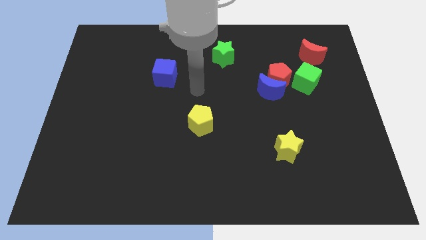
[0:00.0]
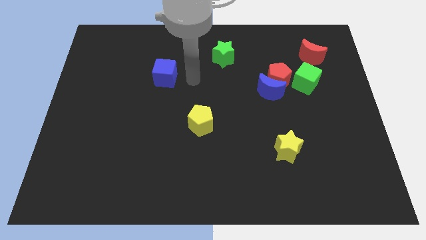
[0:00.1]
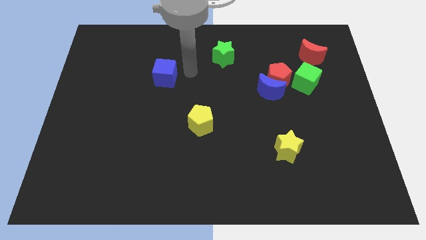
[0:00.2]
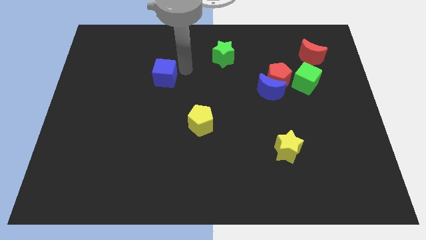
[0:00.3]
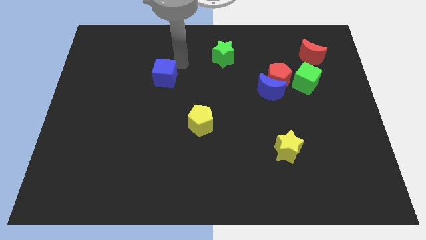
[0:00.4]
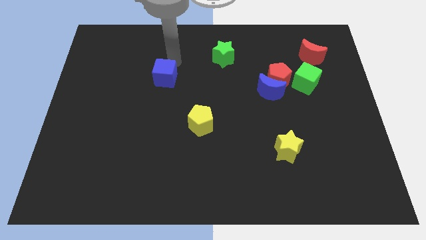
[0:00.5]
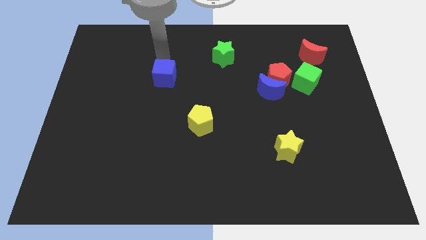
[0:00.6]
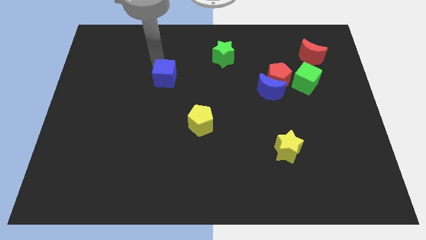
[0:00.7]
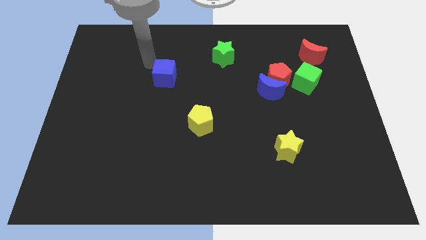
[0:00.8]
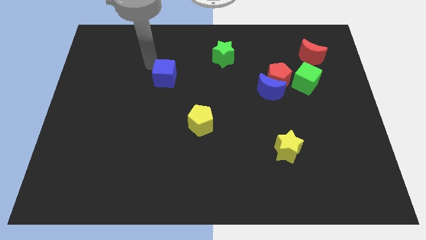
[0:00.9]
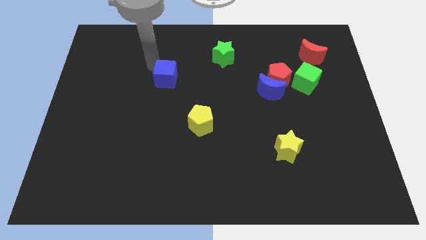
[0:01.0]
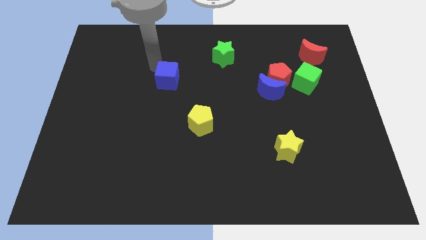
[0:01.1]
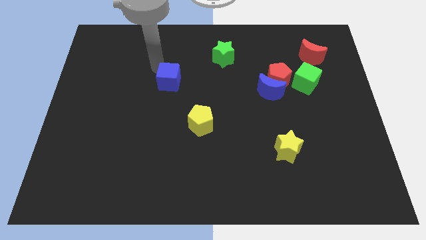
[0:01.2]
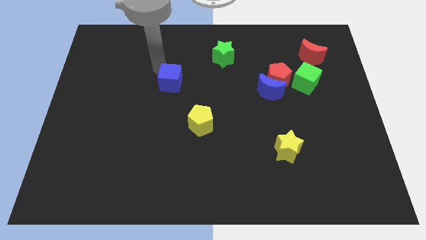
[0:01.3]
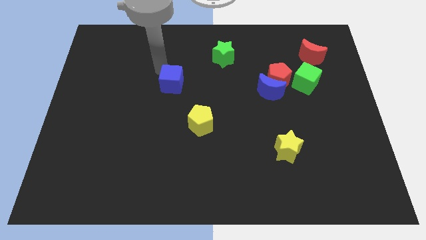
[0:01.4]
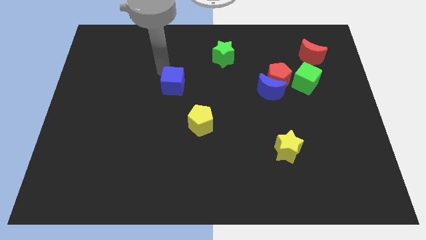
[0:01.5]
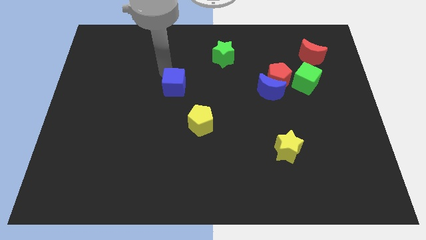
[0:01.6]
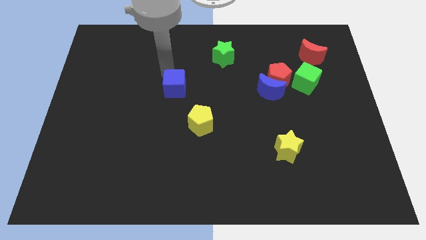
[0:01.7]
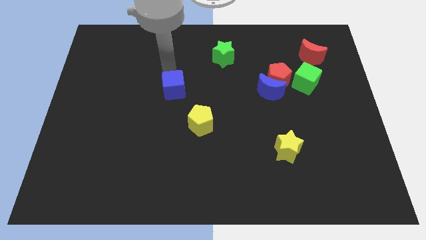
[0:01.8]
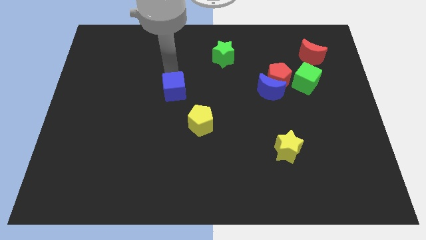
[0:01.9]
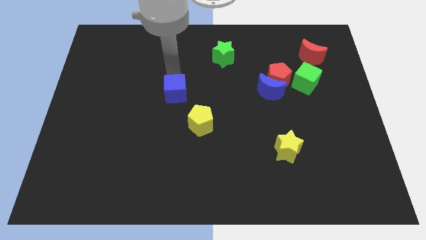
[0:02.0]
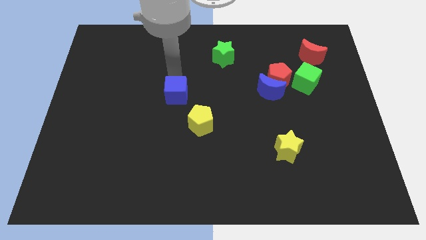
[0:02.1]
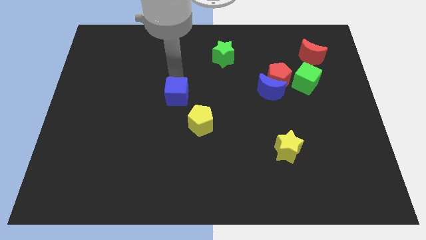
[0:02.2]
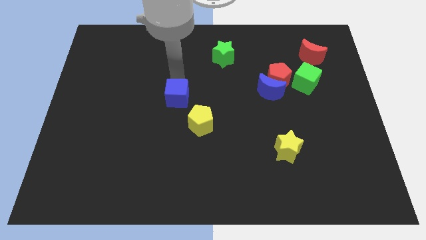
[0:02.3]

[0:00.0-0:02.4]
slide the blue cube a bit down and then to the right

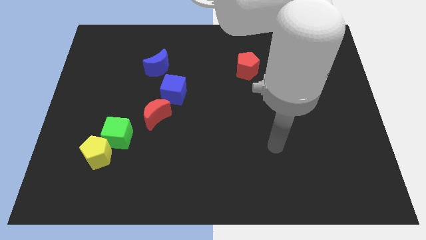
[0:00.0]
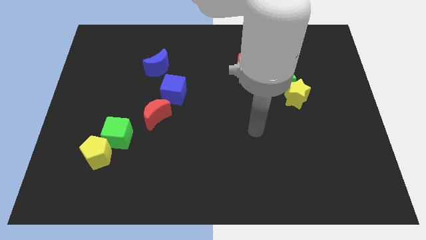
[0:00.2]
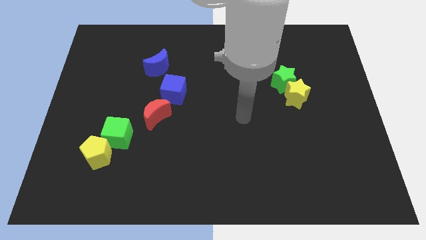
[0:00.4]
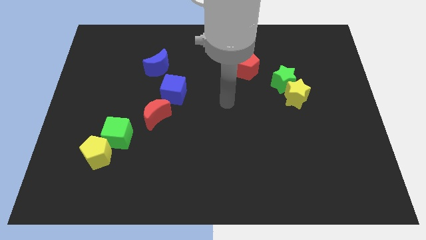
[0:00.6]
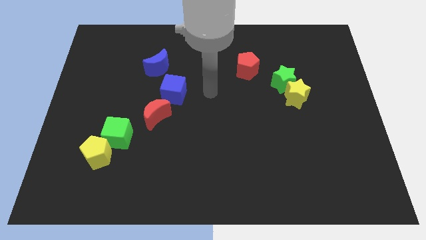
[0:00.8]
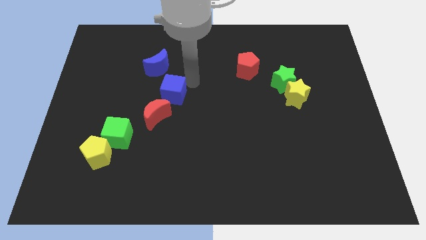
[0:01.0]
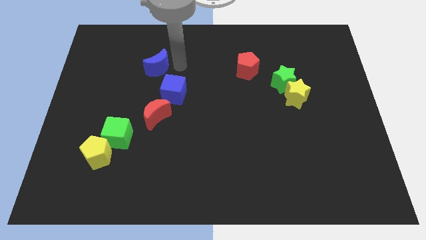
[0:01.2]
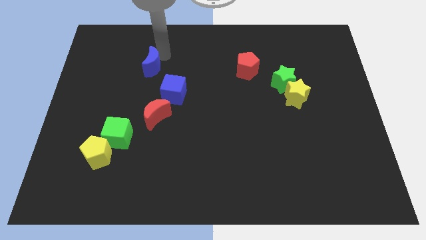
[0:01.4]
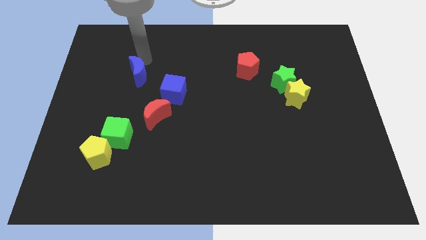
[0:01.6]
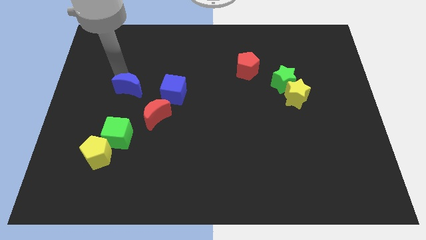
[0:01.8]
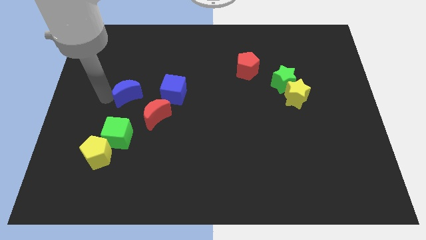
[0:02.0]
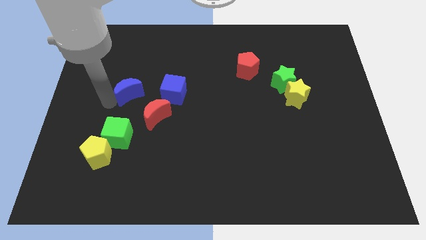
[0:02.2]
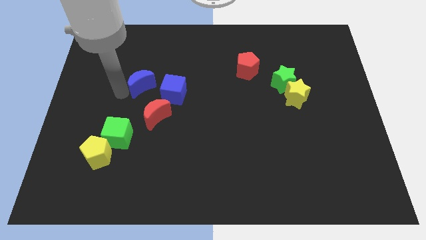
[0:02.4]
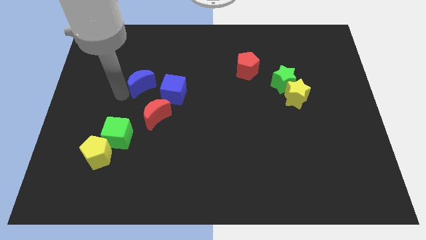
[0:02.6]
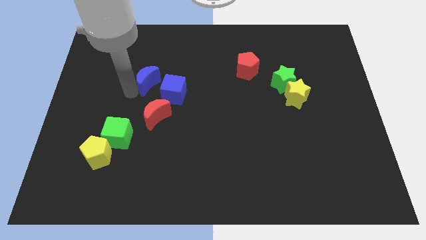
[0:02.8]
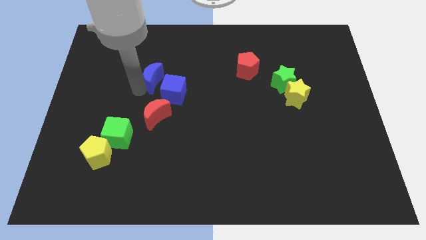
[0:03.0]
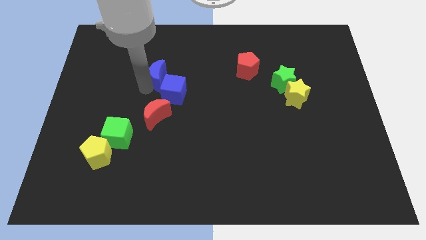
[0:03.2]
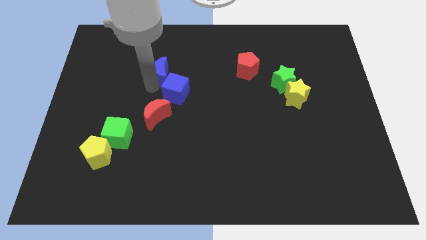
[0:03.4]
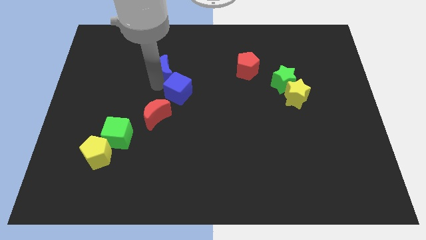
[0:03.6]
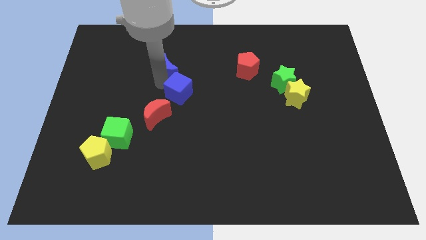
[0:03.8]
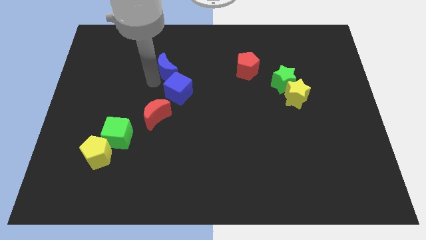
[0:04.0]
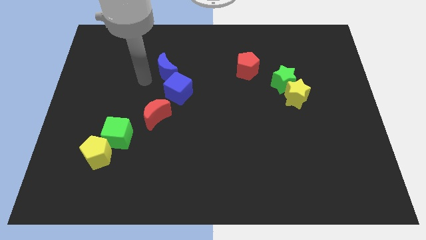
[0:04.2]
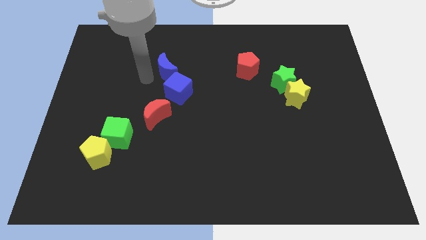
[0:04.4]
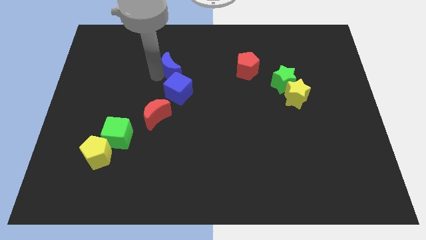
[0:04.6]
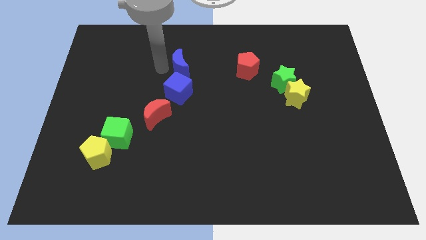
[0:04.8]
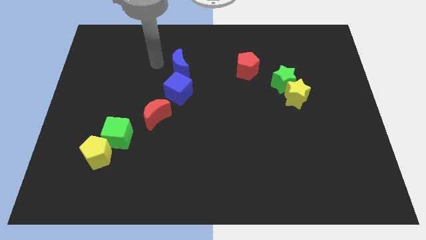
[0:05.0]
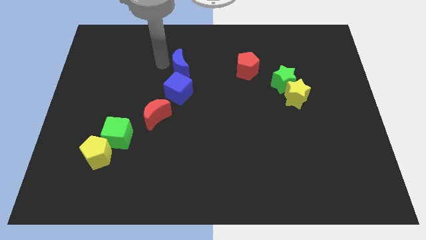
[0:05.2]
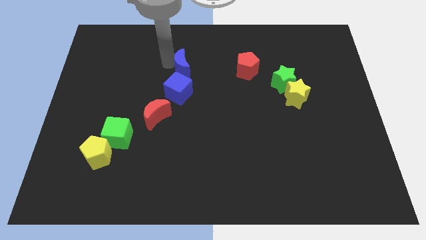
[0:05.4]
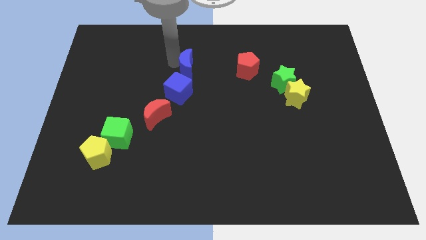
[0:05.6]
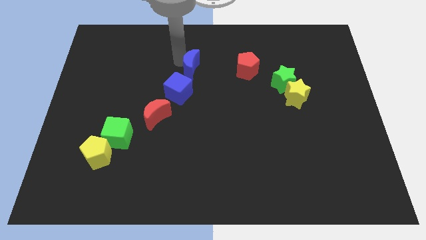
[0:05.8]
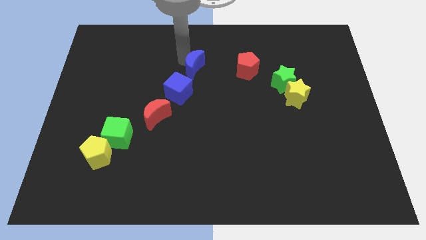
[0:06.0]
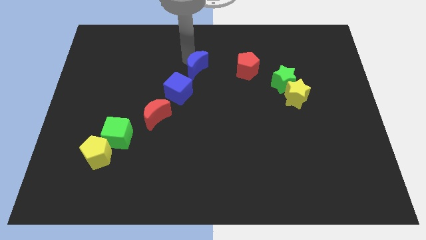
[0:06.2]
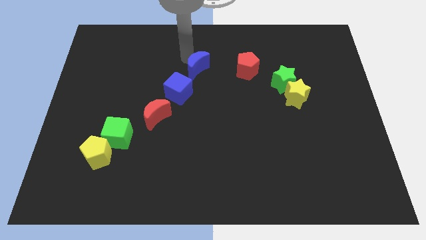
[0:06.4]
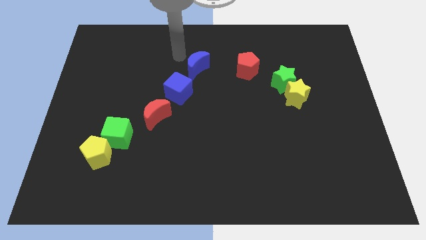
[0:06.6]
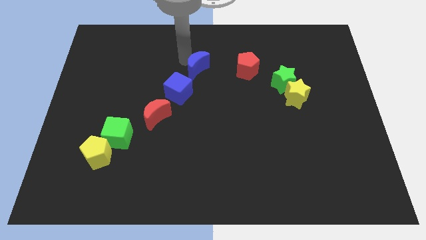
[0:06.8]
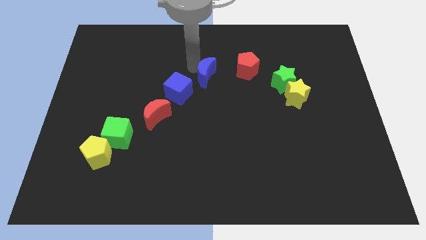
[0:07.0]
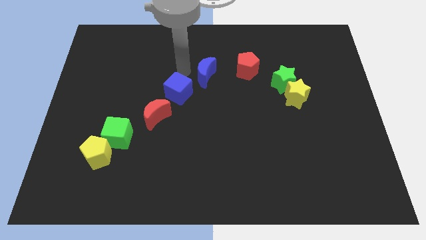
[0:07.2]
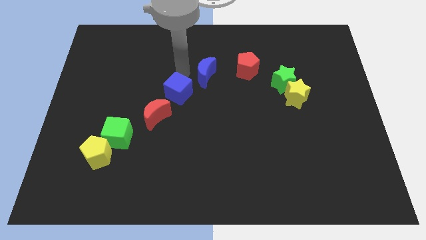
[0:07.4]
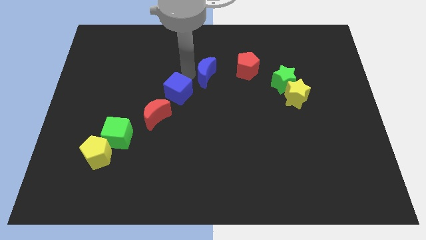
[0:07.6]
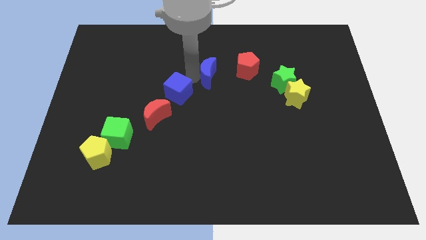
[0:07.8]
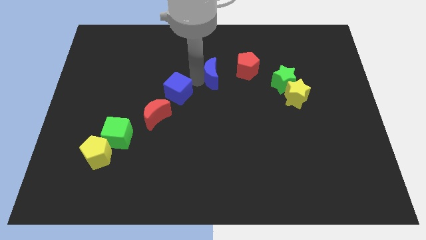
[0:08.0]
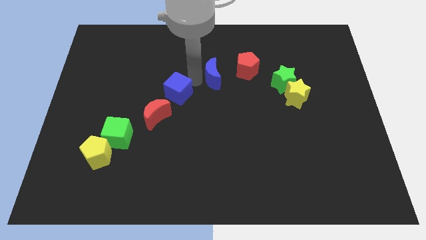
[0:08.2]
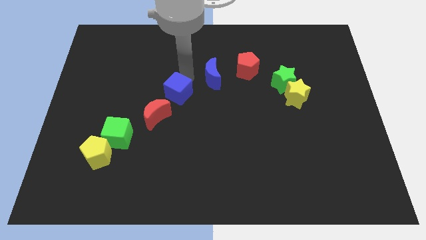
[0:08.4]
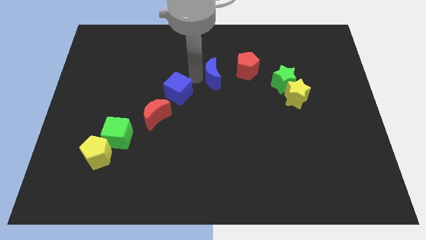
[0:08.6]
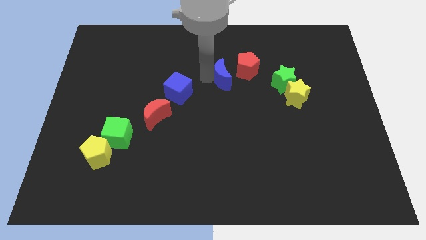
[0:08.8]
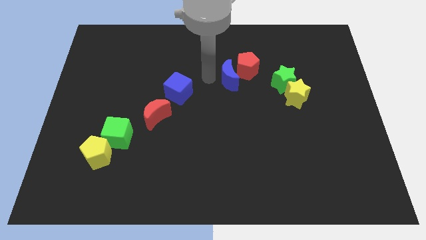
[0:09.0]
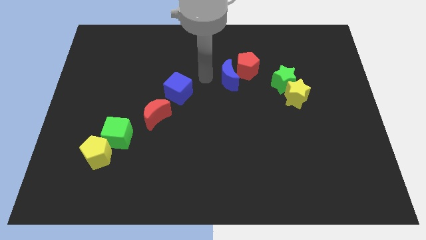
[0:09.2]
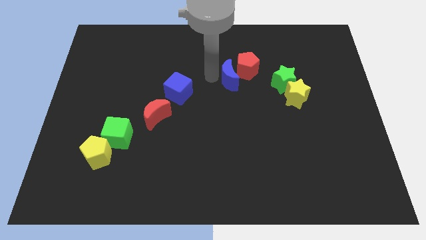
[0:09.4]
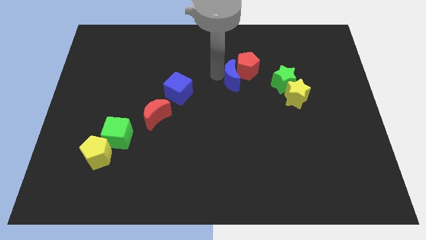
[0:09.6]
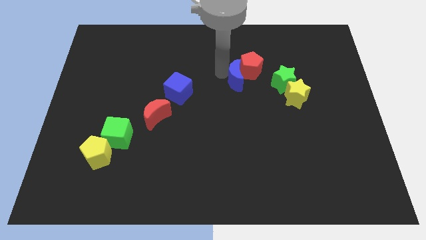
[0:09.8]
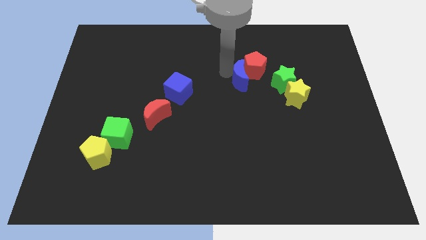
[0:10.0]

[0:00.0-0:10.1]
slide the blue moon right

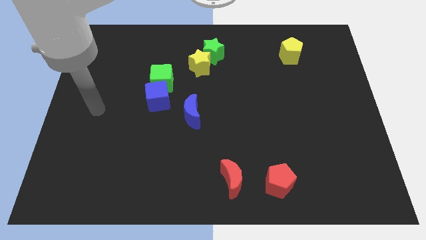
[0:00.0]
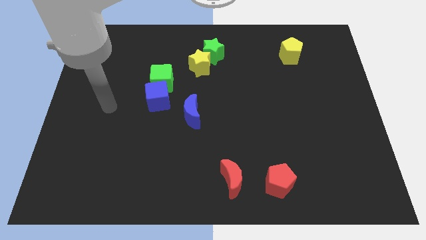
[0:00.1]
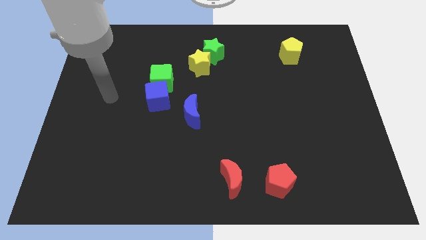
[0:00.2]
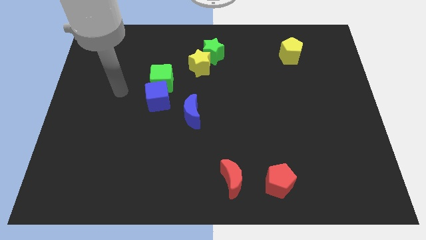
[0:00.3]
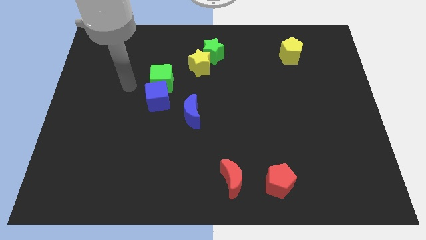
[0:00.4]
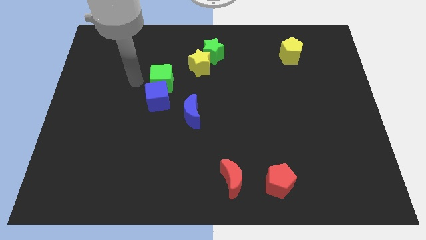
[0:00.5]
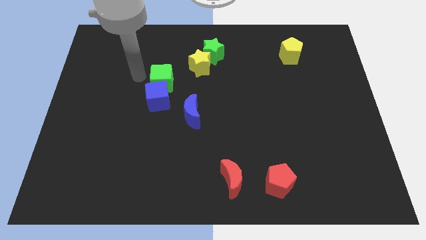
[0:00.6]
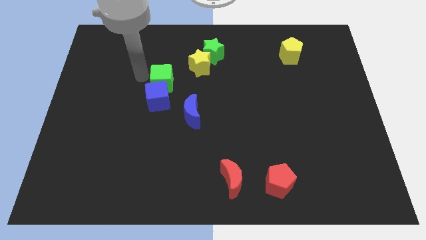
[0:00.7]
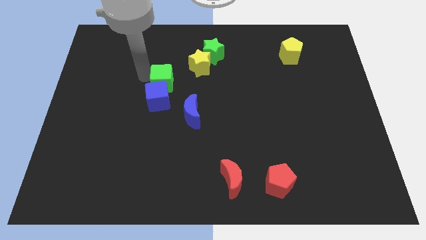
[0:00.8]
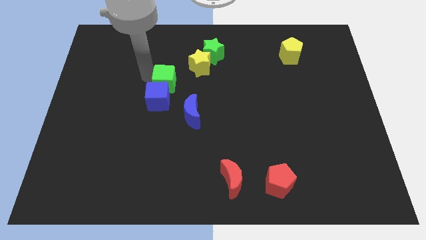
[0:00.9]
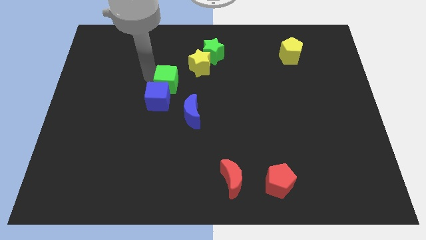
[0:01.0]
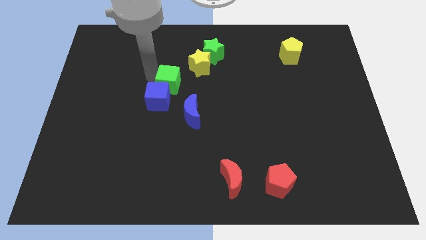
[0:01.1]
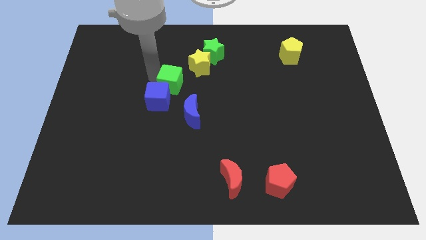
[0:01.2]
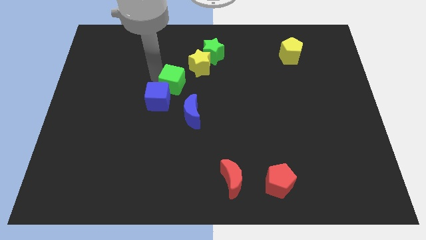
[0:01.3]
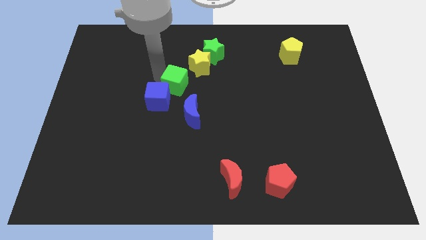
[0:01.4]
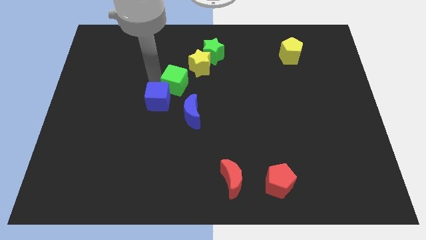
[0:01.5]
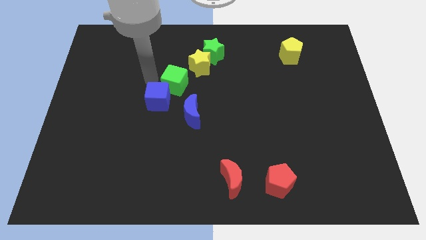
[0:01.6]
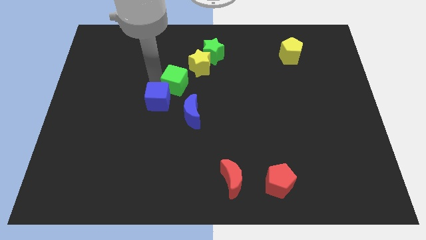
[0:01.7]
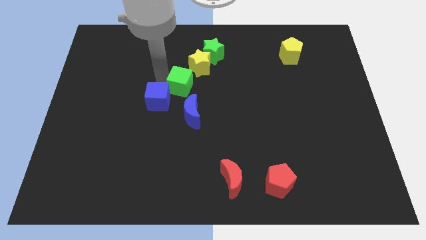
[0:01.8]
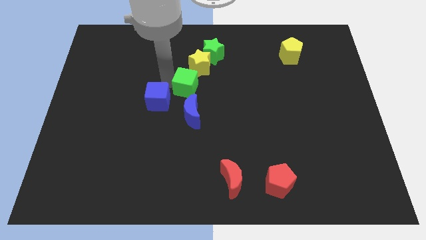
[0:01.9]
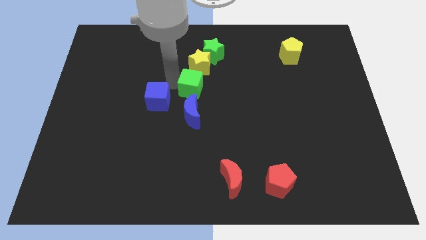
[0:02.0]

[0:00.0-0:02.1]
move the green cube a little to the right
